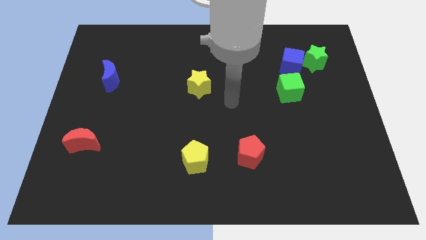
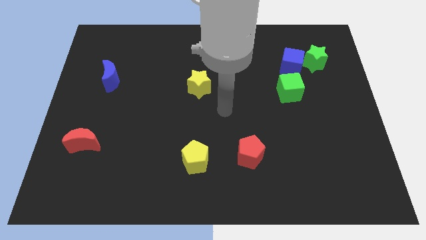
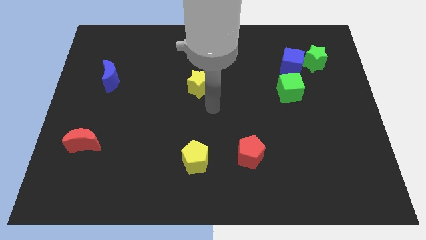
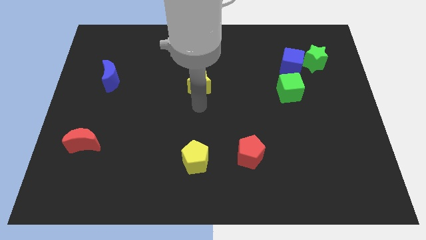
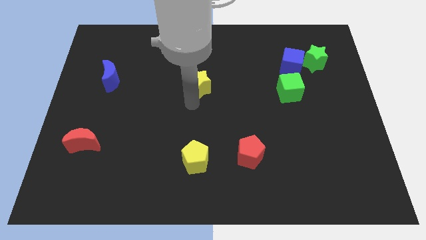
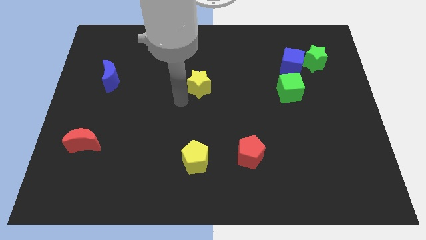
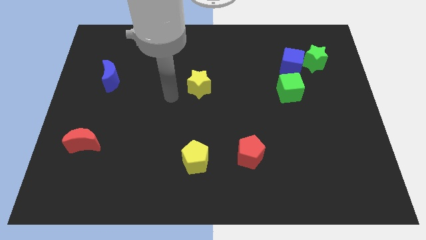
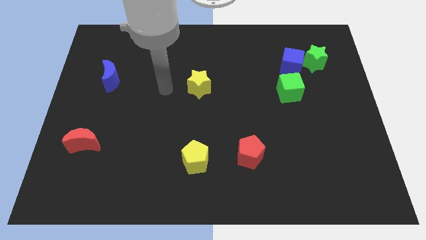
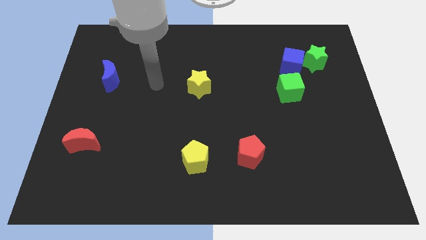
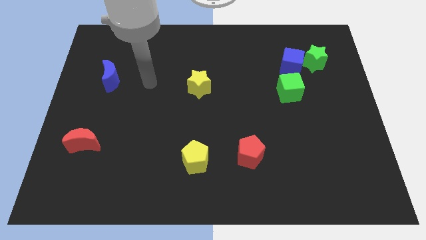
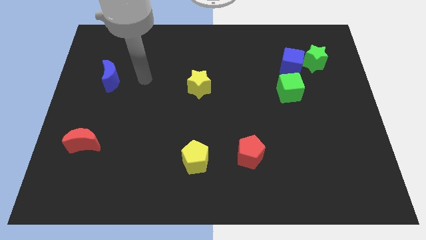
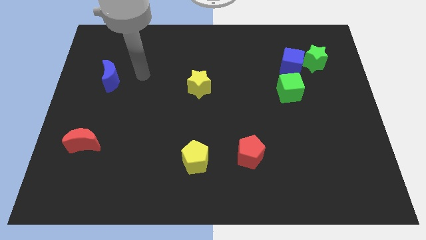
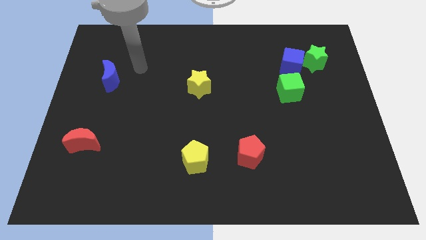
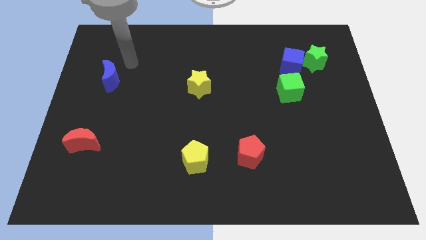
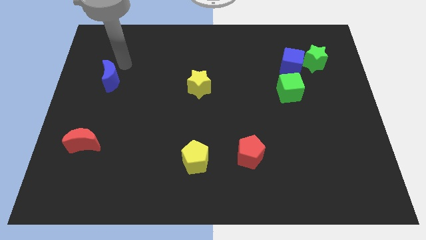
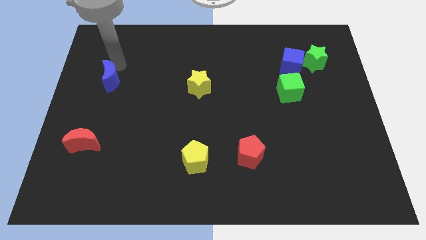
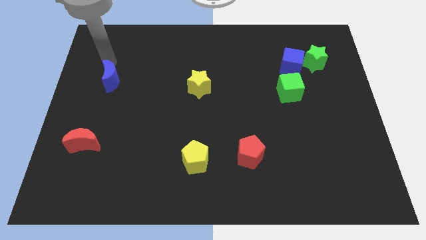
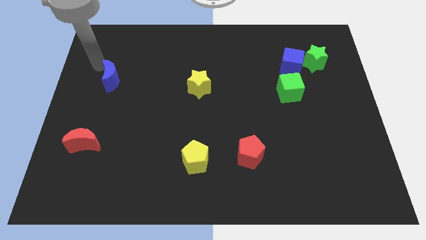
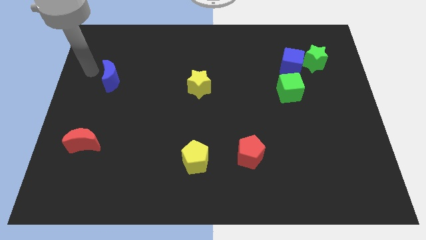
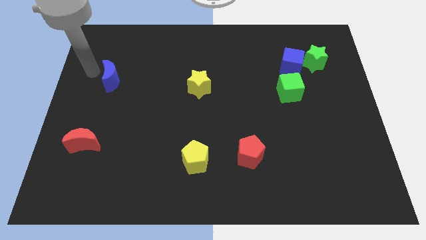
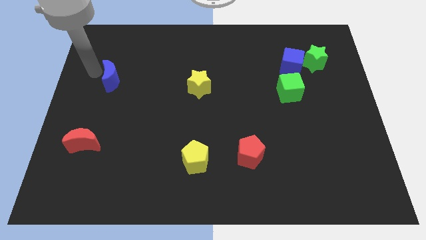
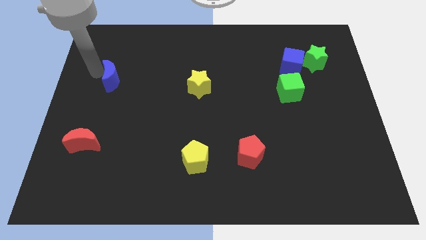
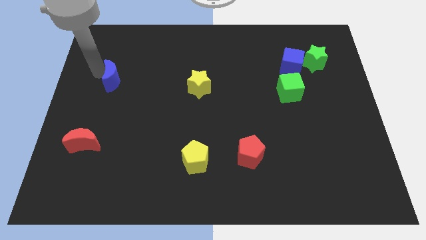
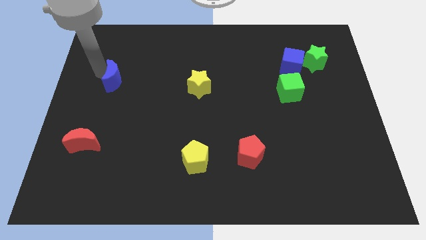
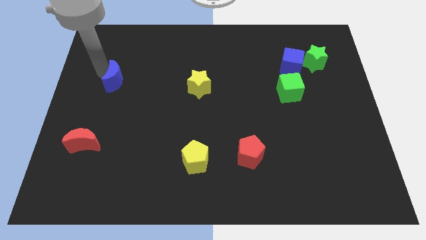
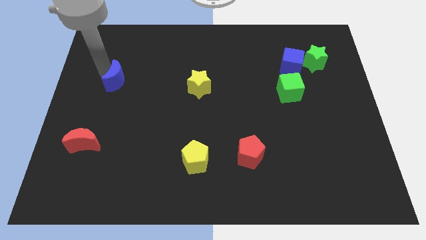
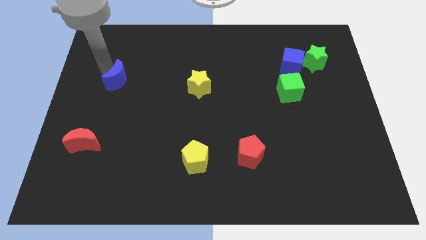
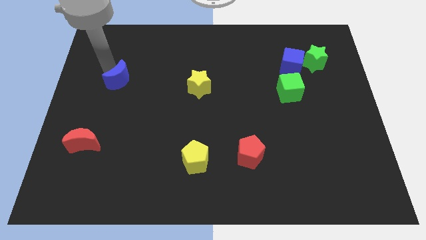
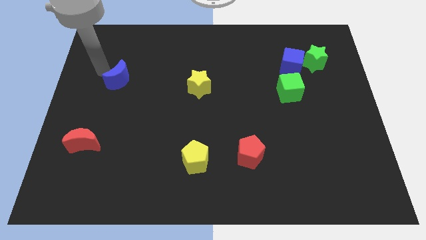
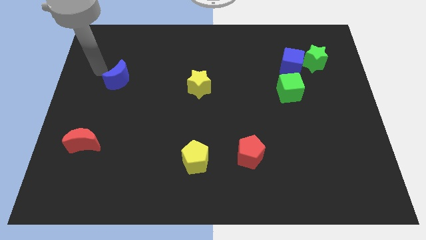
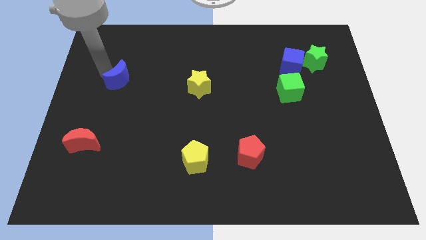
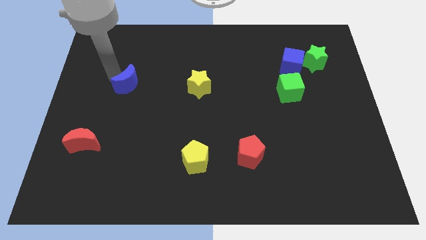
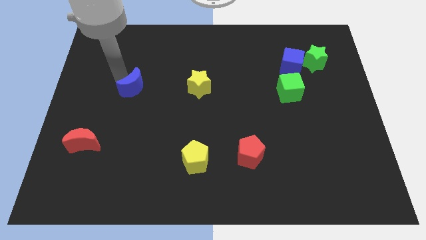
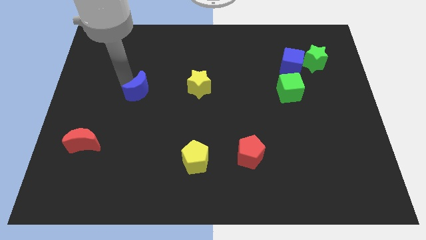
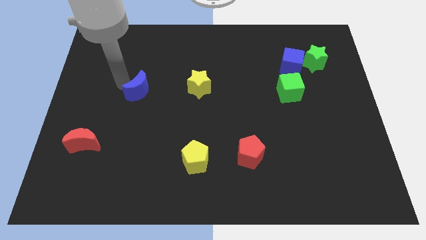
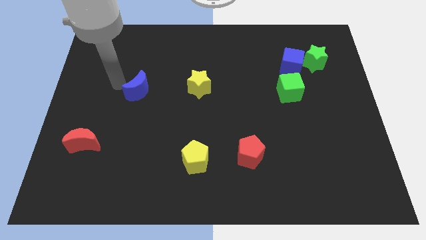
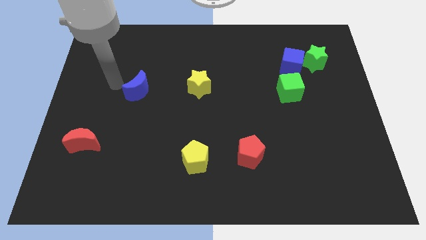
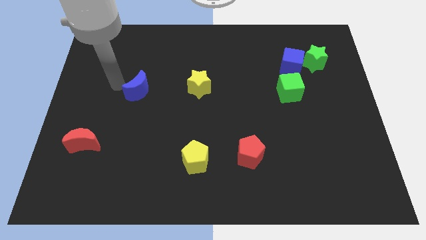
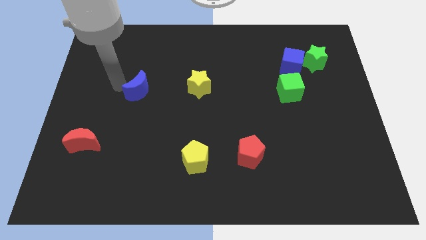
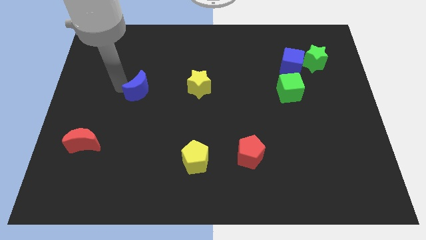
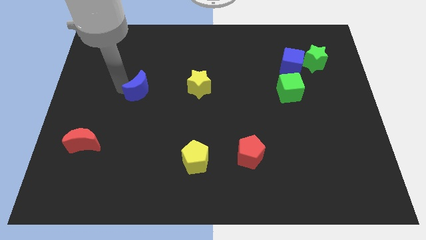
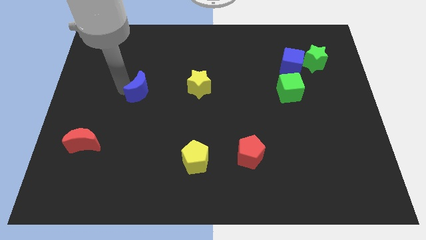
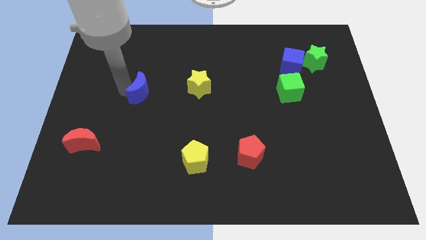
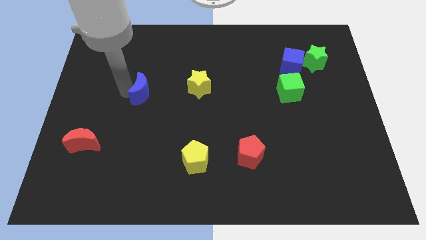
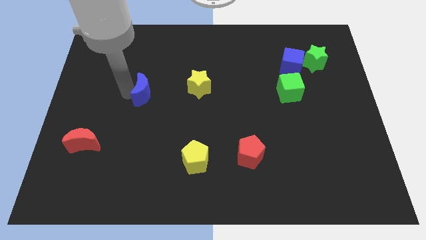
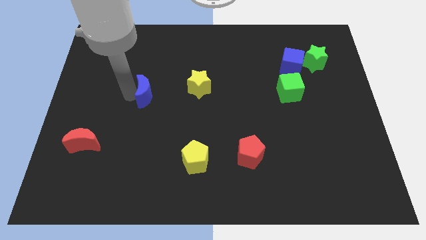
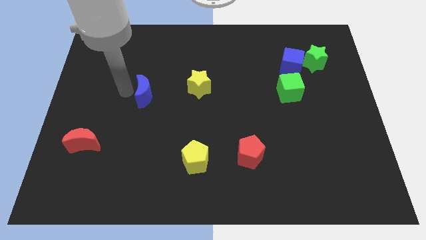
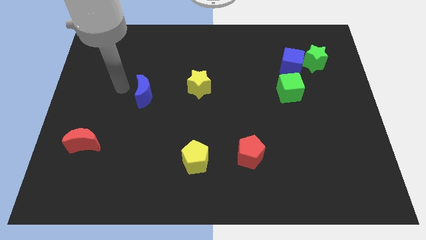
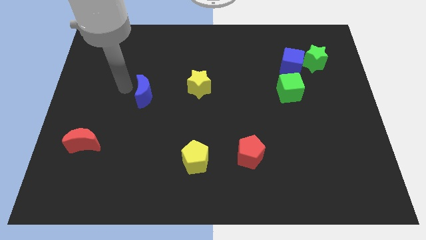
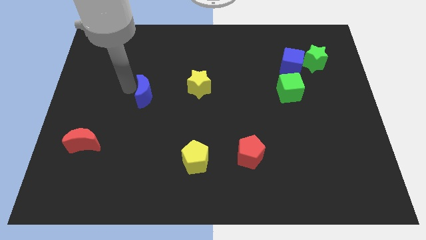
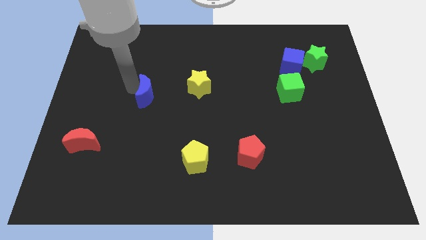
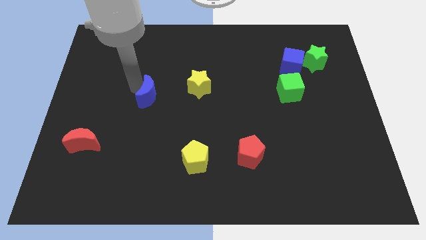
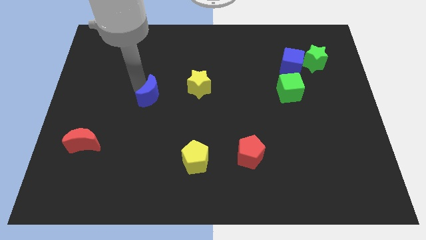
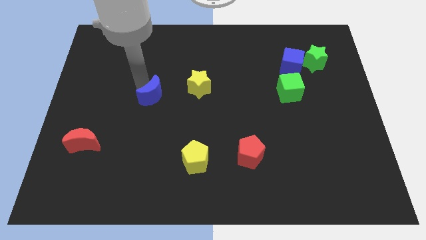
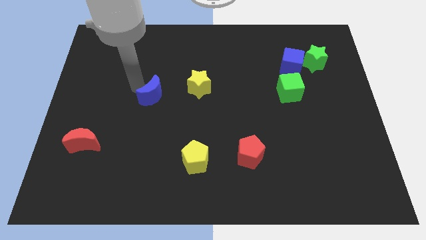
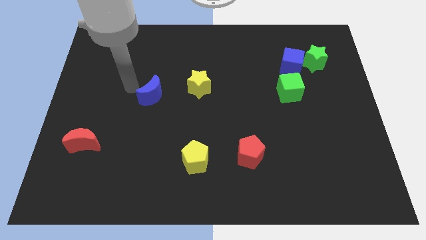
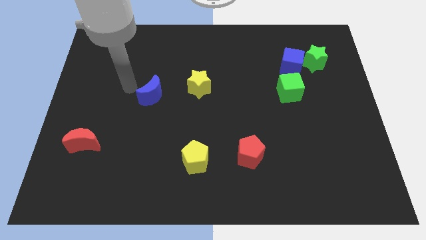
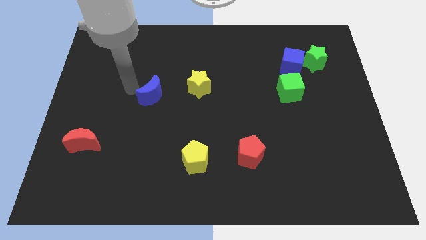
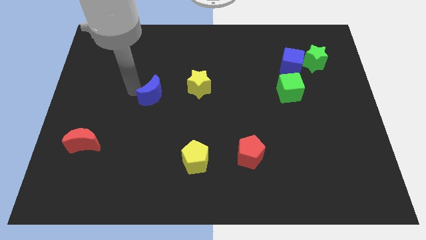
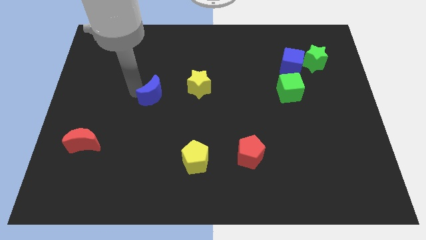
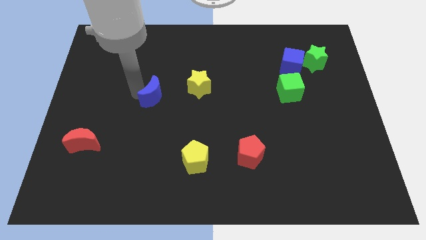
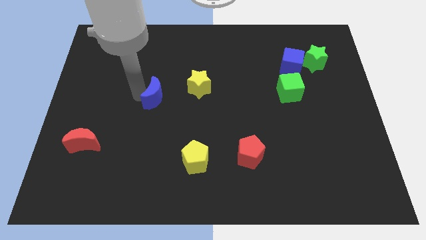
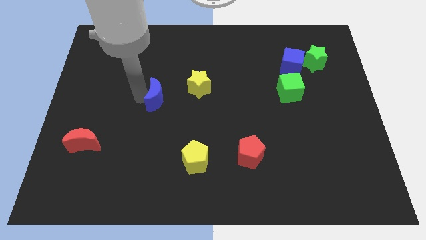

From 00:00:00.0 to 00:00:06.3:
move the blue moon to the bottom left of the yellow star

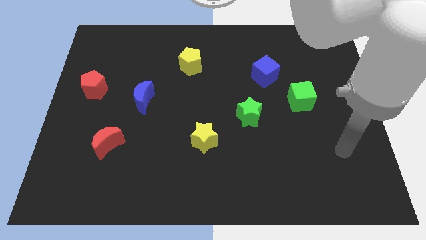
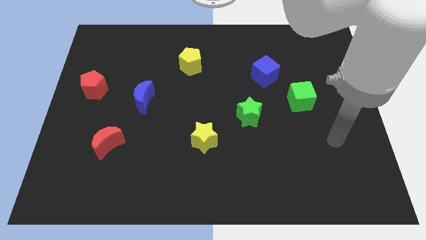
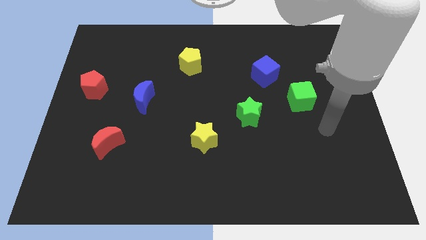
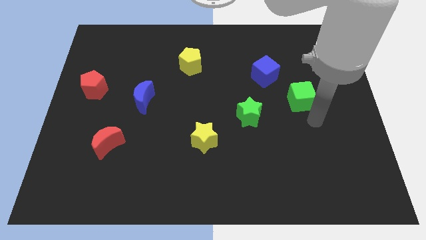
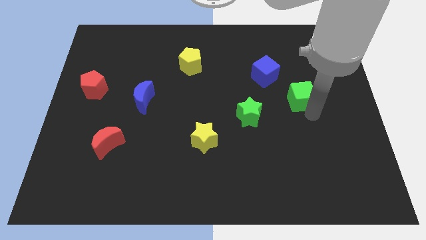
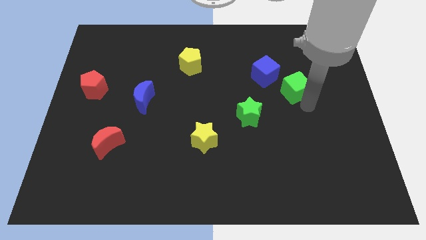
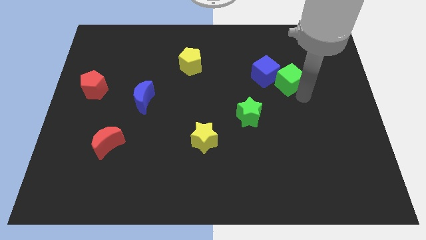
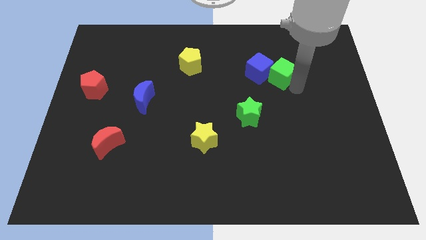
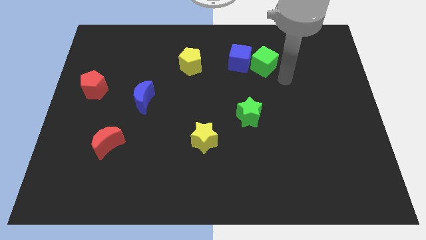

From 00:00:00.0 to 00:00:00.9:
put the blue cube right of the yellow pentagon
